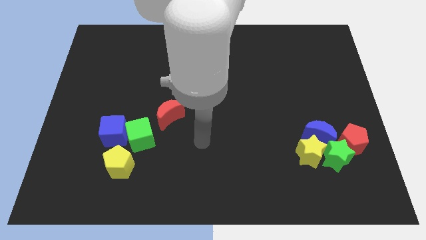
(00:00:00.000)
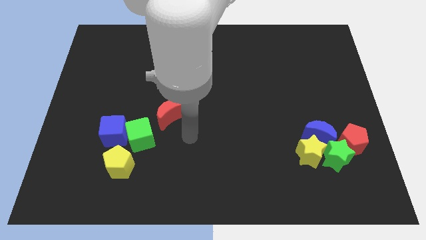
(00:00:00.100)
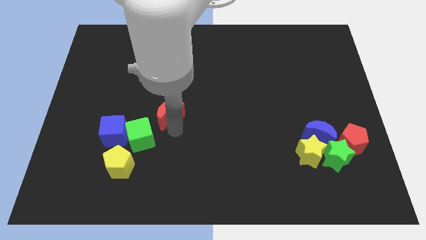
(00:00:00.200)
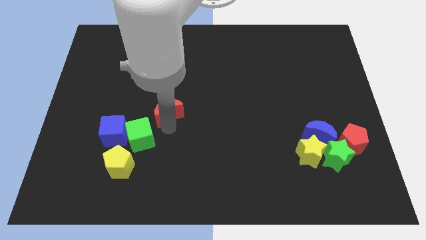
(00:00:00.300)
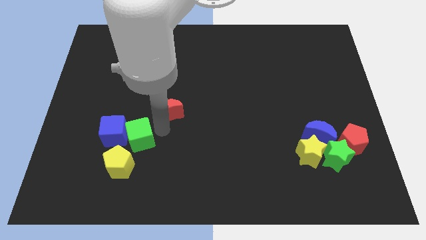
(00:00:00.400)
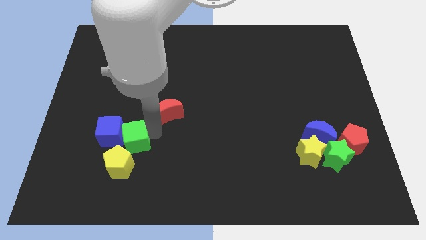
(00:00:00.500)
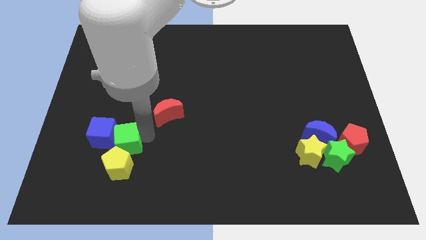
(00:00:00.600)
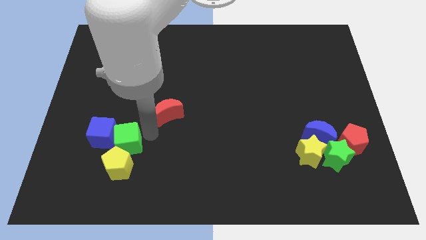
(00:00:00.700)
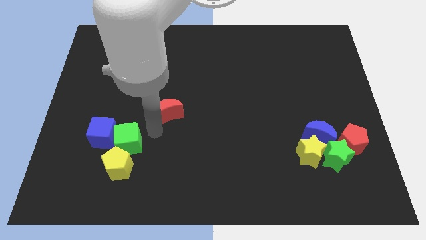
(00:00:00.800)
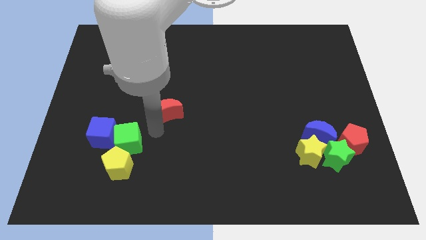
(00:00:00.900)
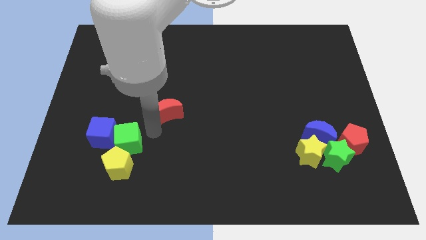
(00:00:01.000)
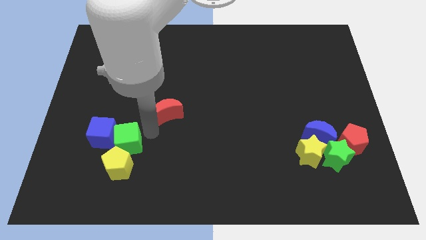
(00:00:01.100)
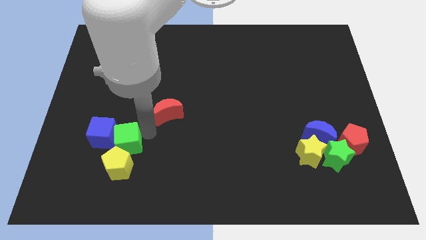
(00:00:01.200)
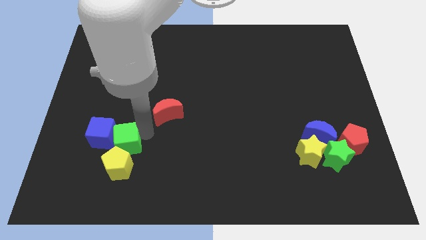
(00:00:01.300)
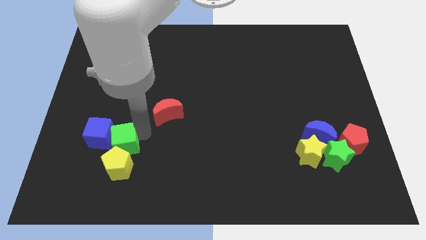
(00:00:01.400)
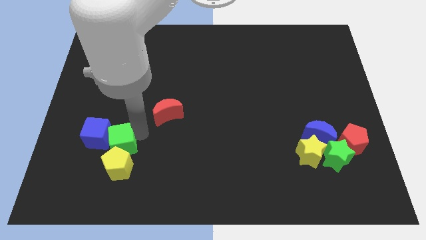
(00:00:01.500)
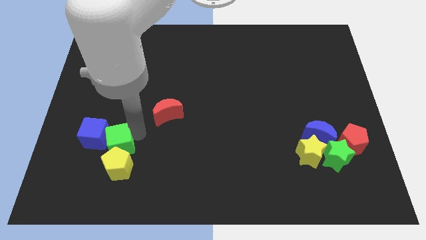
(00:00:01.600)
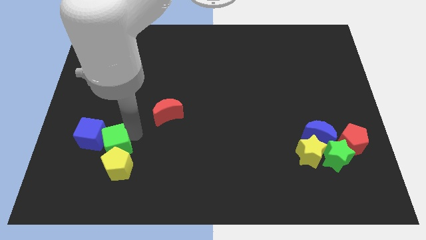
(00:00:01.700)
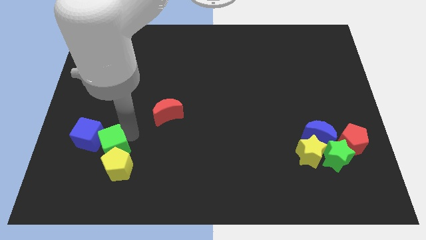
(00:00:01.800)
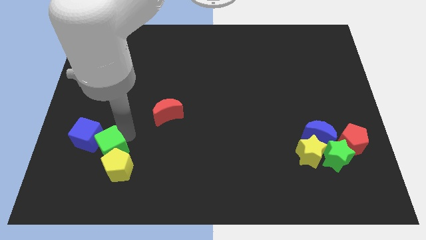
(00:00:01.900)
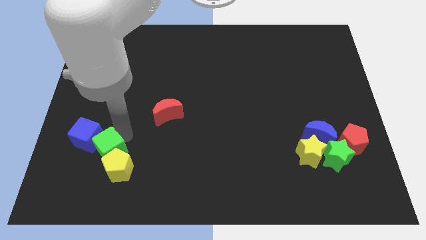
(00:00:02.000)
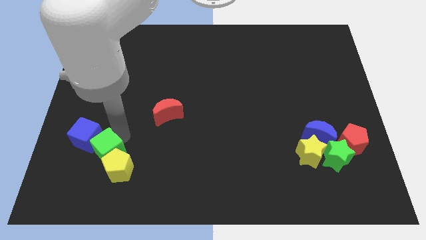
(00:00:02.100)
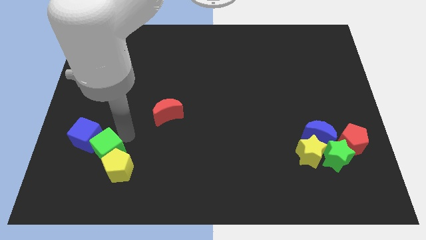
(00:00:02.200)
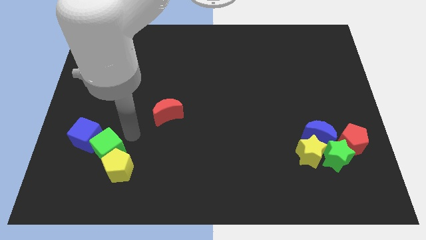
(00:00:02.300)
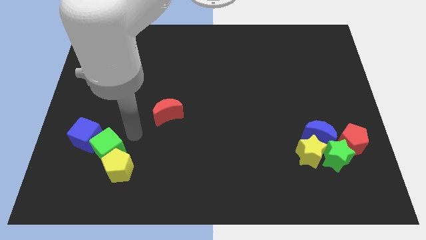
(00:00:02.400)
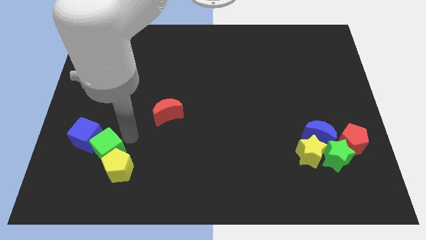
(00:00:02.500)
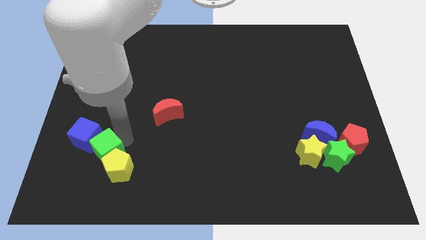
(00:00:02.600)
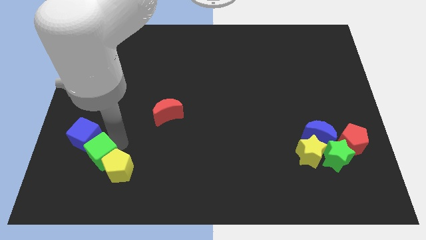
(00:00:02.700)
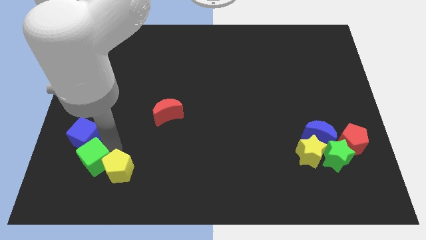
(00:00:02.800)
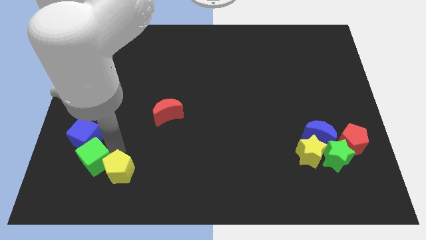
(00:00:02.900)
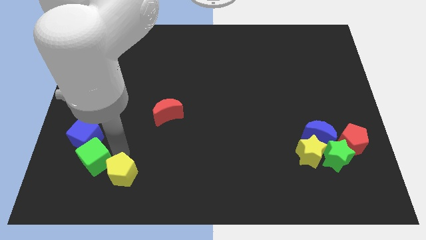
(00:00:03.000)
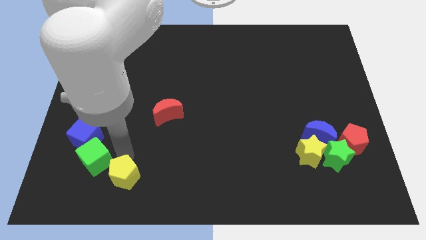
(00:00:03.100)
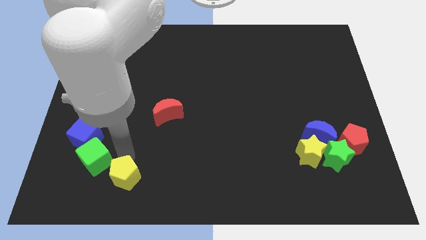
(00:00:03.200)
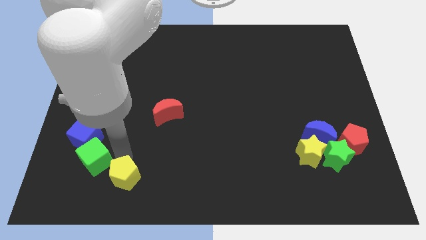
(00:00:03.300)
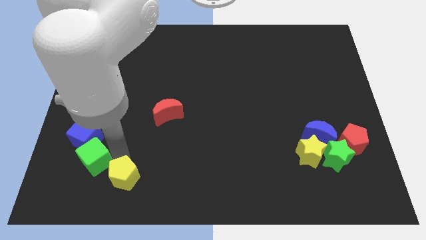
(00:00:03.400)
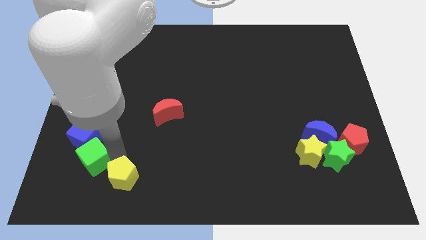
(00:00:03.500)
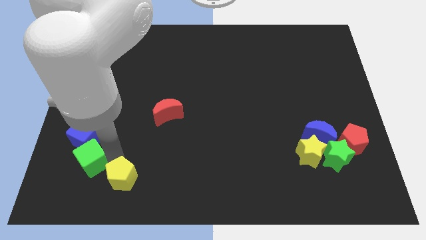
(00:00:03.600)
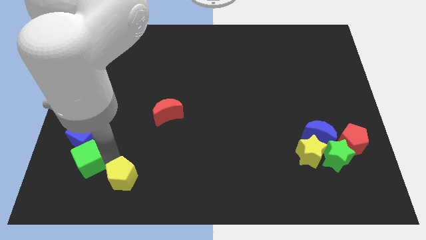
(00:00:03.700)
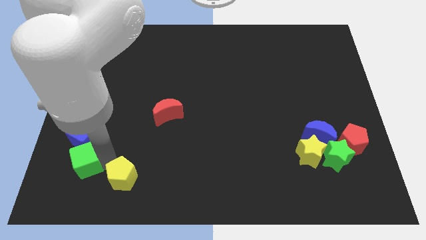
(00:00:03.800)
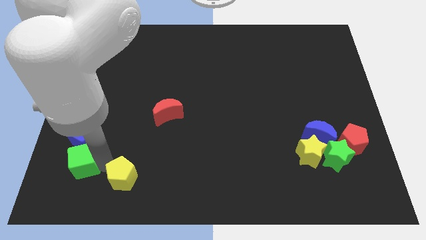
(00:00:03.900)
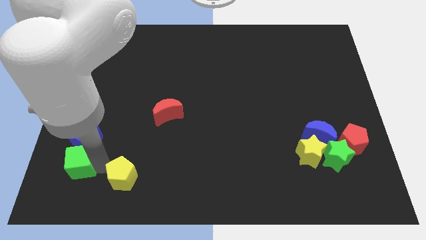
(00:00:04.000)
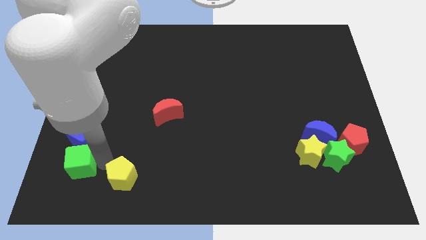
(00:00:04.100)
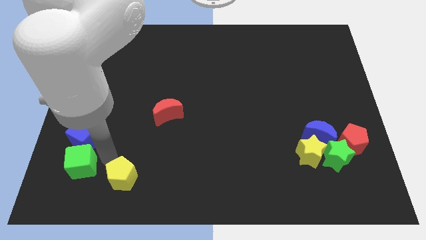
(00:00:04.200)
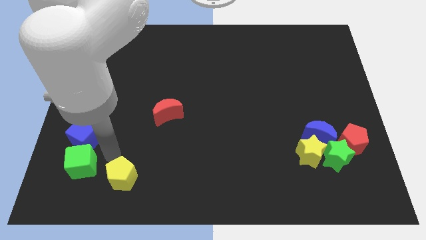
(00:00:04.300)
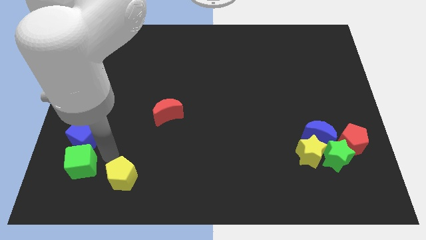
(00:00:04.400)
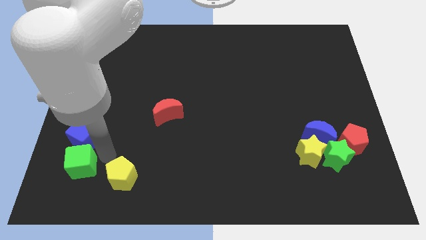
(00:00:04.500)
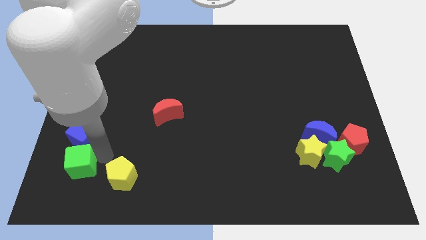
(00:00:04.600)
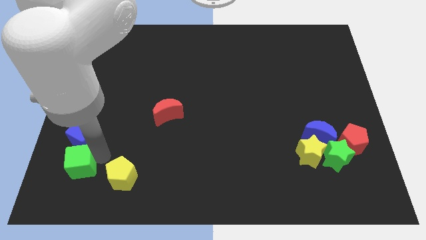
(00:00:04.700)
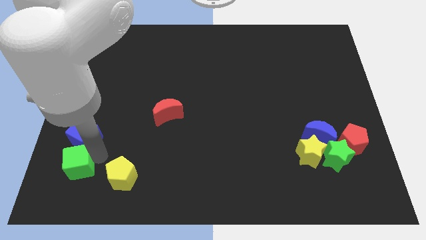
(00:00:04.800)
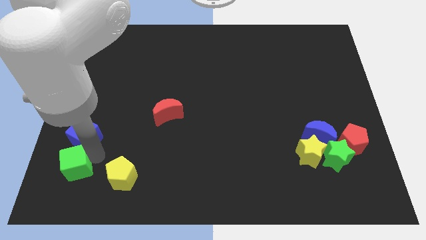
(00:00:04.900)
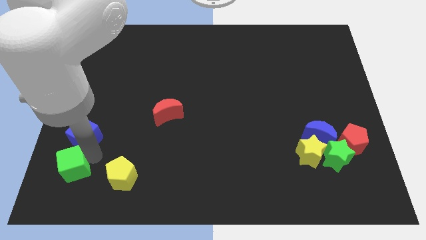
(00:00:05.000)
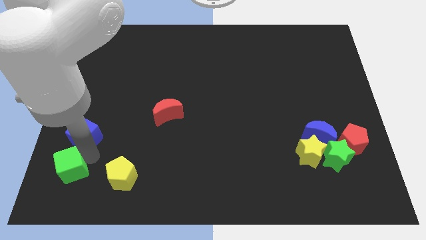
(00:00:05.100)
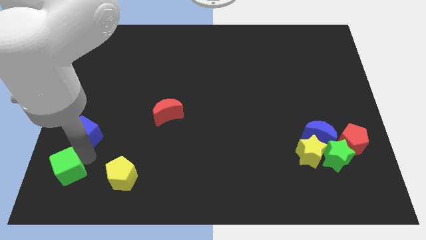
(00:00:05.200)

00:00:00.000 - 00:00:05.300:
slide the green cube to the bottom left

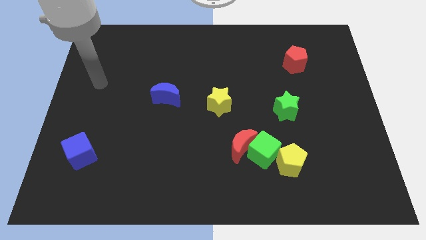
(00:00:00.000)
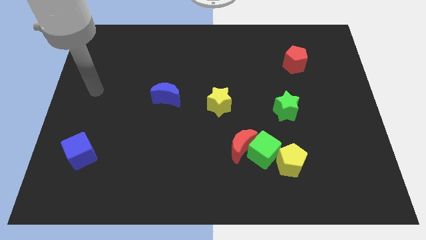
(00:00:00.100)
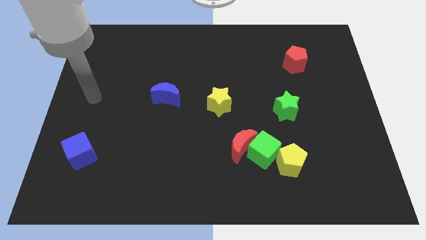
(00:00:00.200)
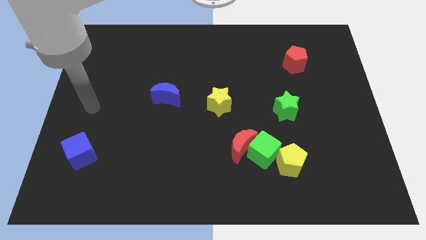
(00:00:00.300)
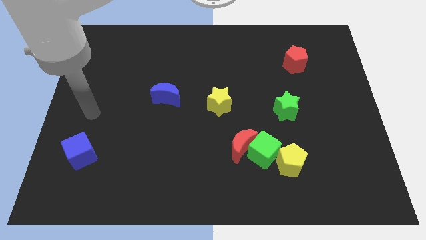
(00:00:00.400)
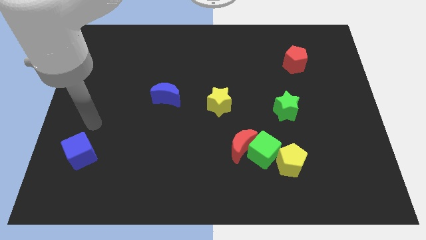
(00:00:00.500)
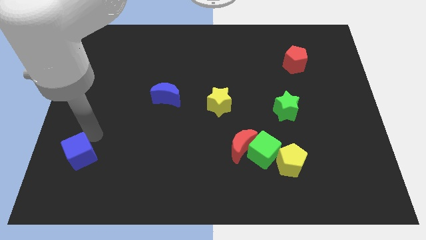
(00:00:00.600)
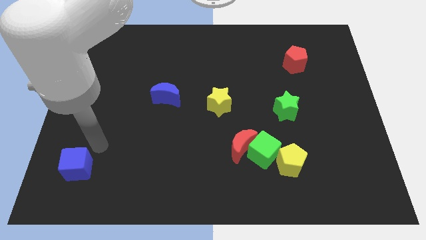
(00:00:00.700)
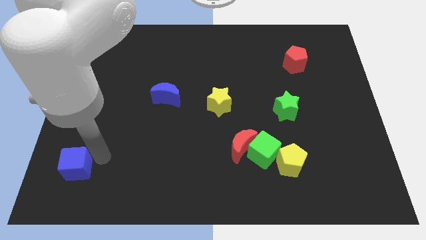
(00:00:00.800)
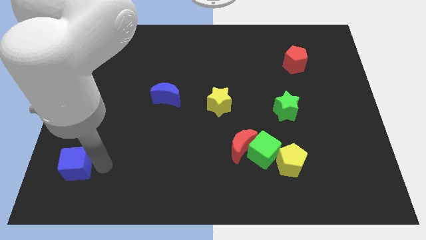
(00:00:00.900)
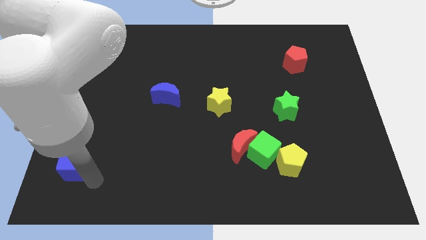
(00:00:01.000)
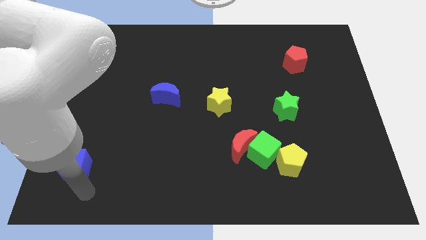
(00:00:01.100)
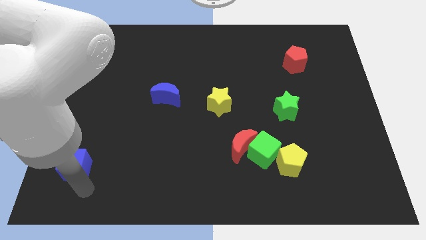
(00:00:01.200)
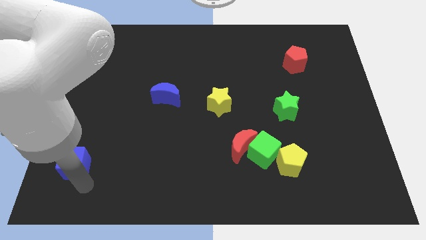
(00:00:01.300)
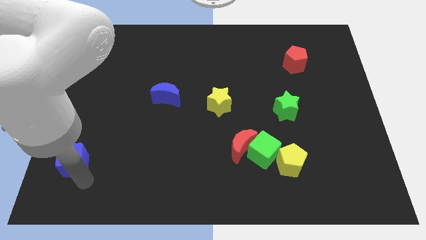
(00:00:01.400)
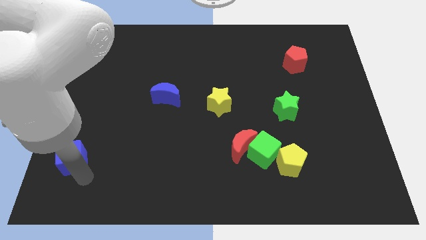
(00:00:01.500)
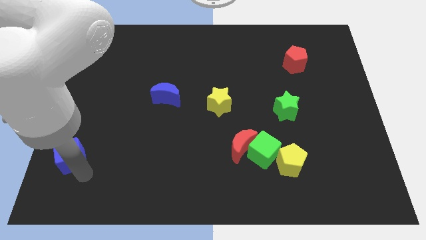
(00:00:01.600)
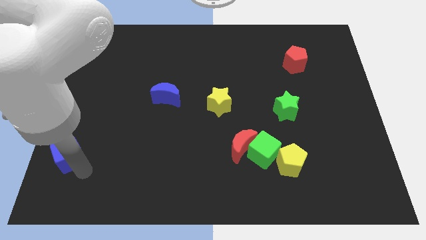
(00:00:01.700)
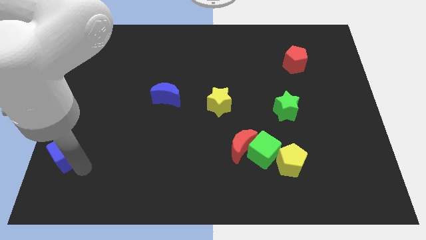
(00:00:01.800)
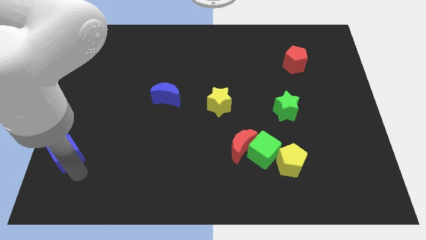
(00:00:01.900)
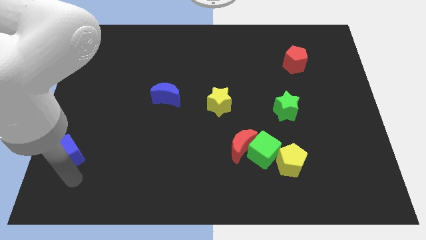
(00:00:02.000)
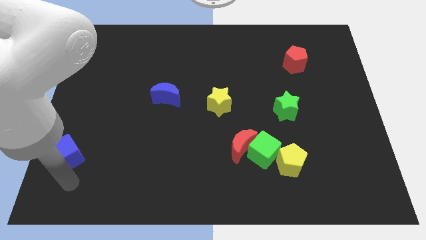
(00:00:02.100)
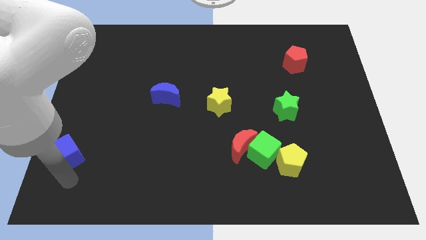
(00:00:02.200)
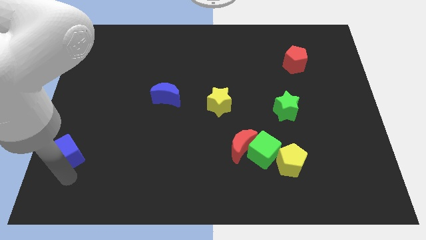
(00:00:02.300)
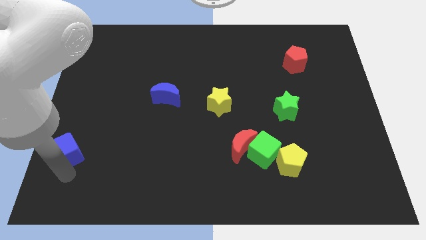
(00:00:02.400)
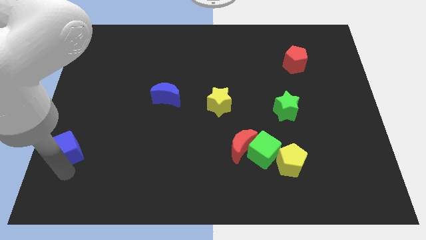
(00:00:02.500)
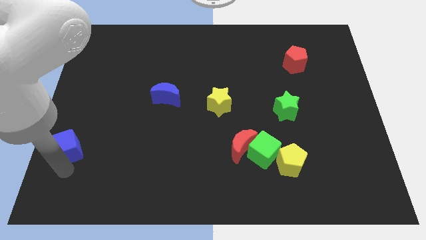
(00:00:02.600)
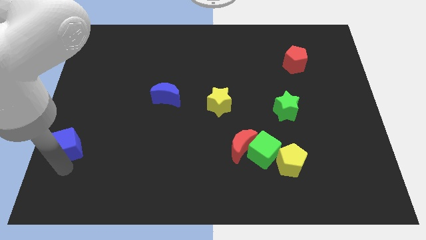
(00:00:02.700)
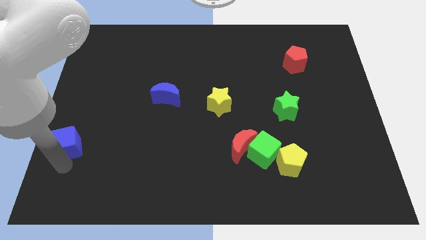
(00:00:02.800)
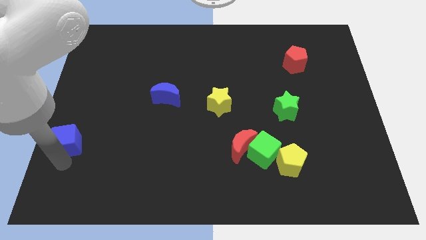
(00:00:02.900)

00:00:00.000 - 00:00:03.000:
push the blue cube to the center left
